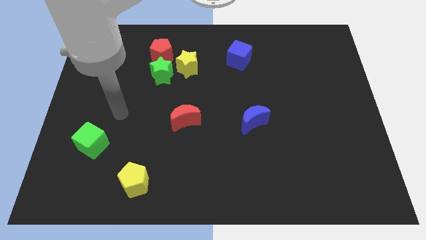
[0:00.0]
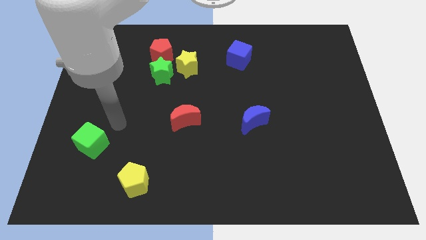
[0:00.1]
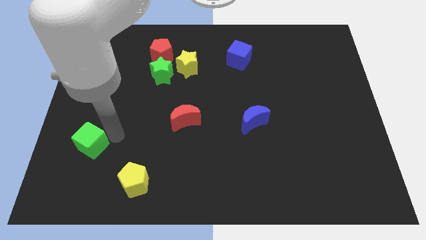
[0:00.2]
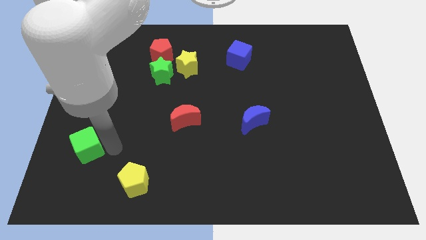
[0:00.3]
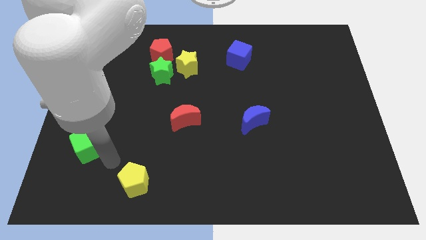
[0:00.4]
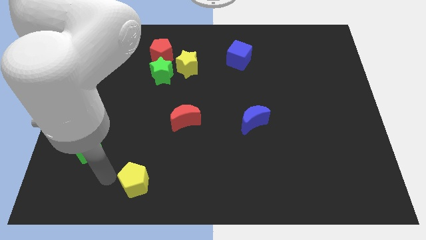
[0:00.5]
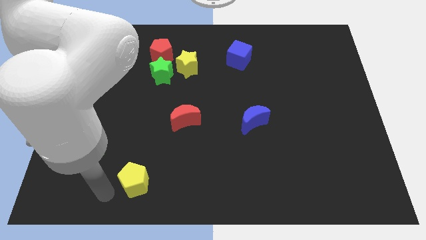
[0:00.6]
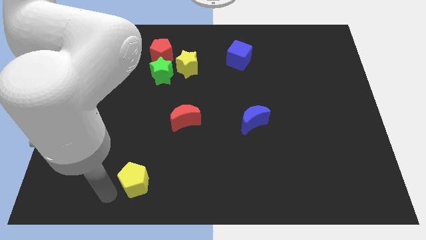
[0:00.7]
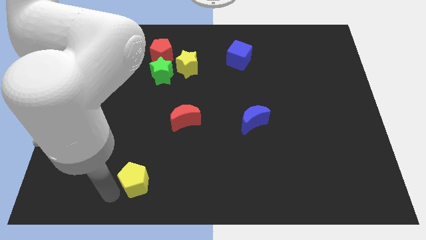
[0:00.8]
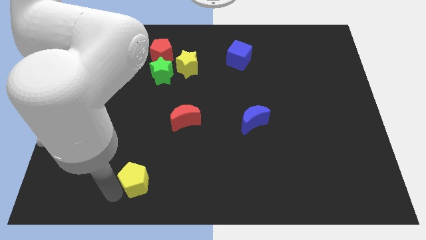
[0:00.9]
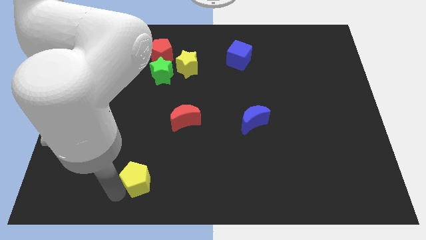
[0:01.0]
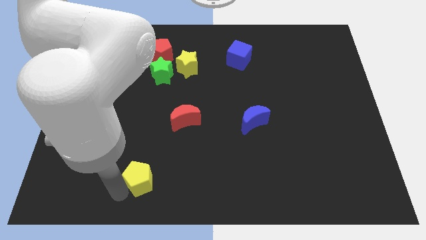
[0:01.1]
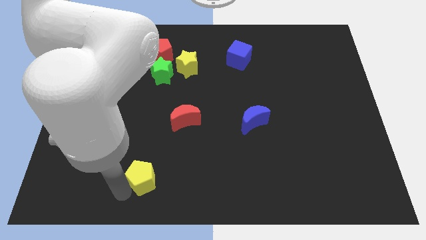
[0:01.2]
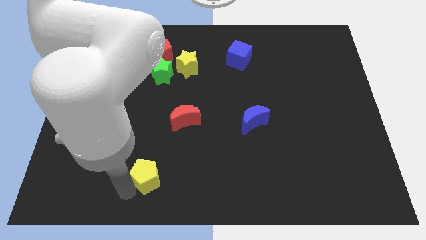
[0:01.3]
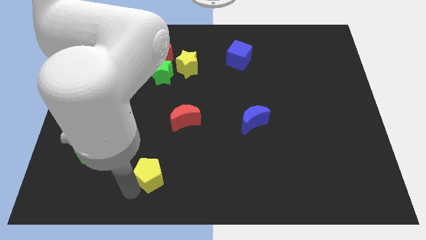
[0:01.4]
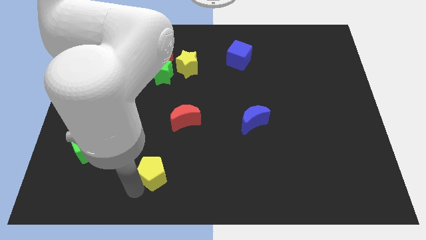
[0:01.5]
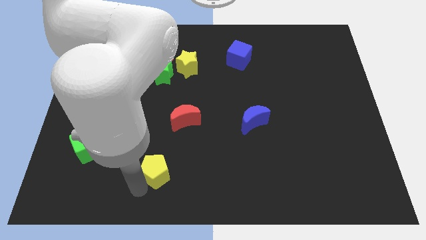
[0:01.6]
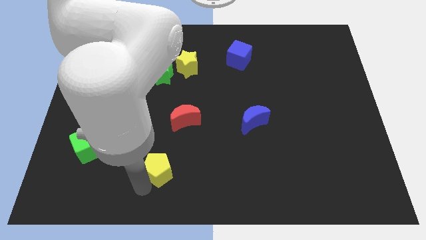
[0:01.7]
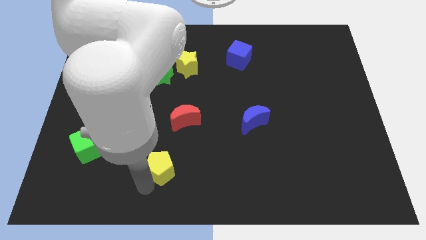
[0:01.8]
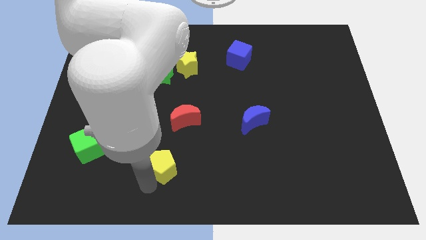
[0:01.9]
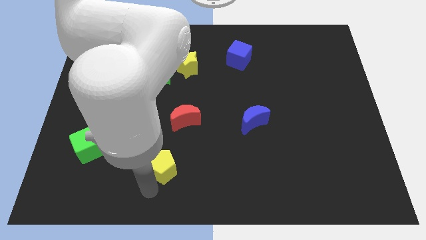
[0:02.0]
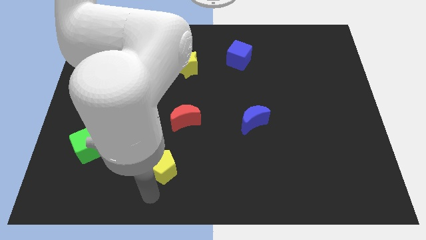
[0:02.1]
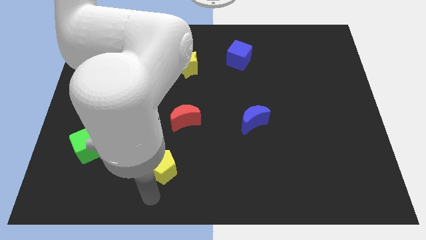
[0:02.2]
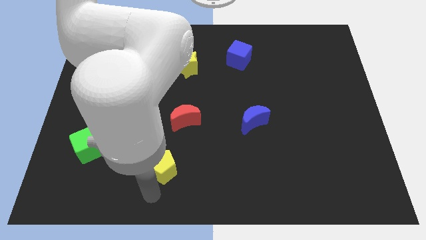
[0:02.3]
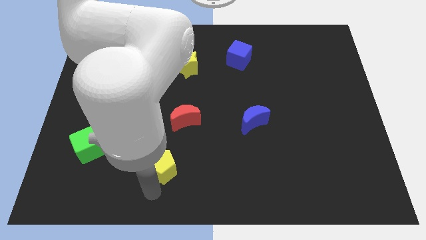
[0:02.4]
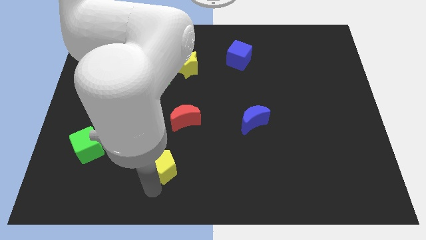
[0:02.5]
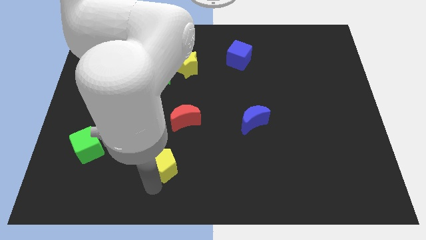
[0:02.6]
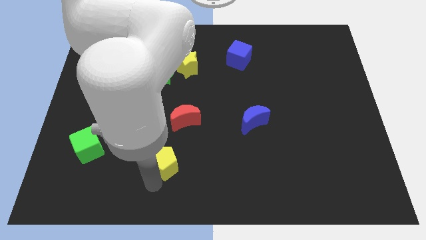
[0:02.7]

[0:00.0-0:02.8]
slightly push the yellow pentagon diagonally up and right

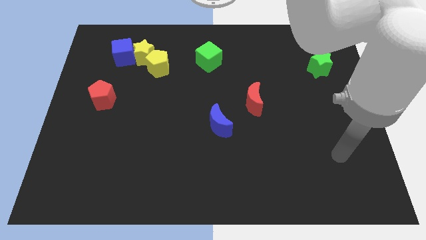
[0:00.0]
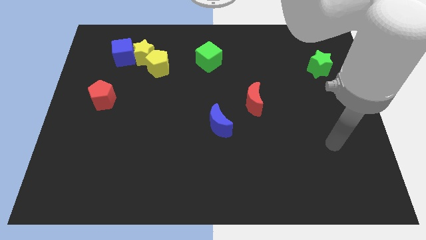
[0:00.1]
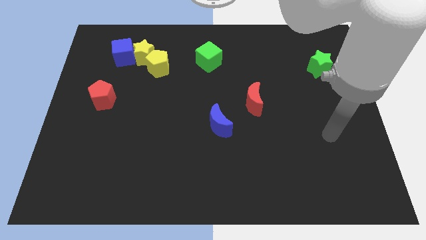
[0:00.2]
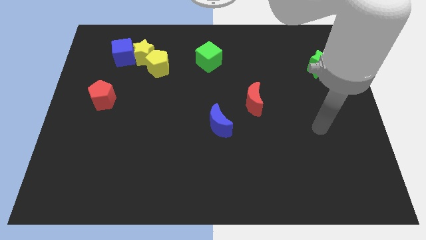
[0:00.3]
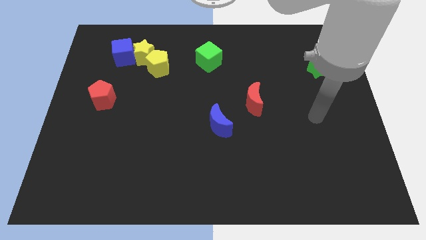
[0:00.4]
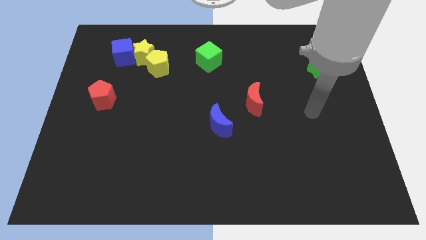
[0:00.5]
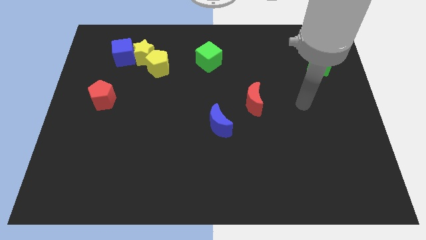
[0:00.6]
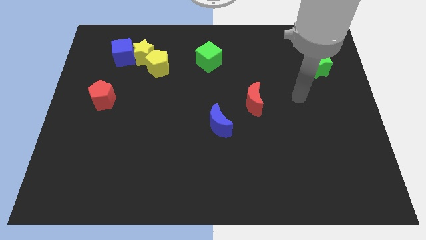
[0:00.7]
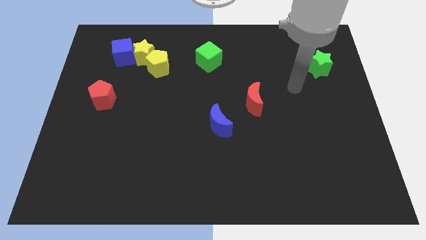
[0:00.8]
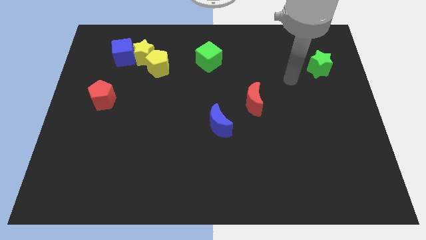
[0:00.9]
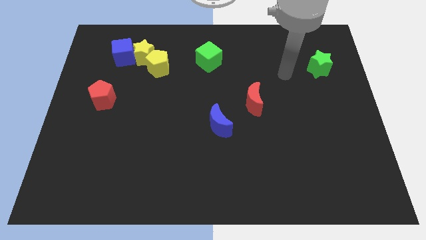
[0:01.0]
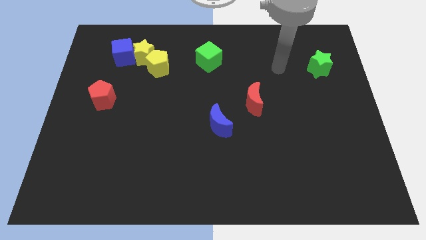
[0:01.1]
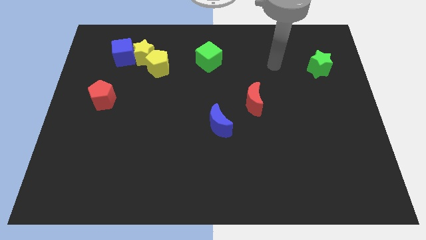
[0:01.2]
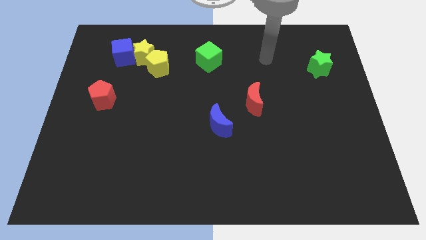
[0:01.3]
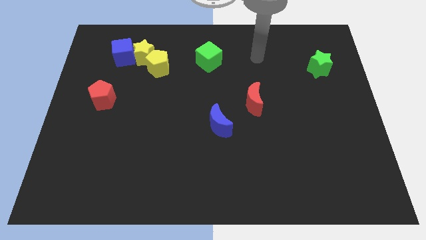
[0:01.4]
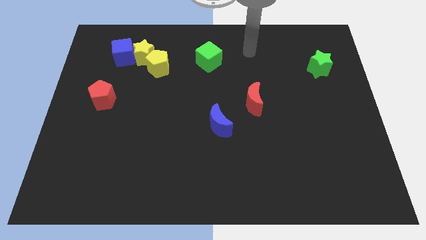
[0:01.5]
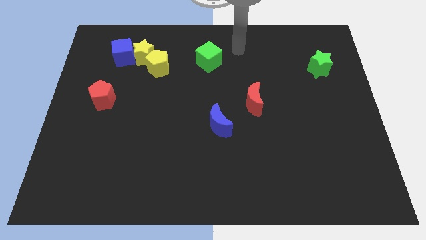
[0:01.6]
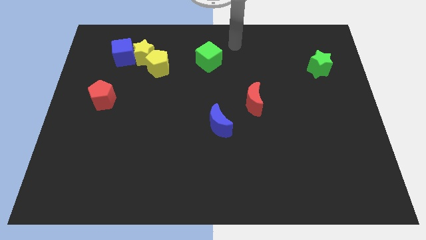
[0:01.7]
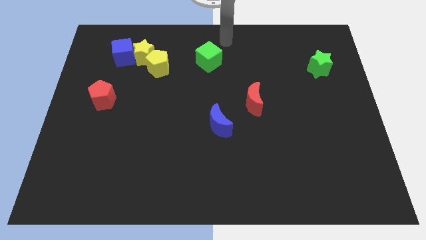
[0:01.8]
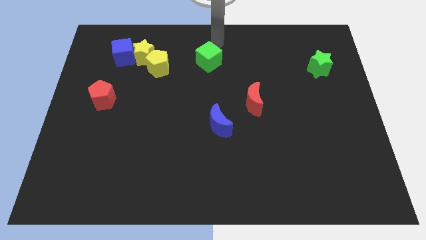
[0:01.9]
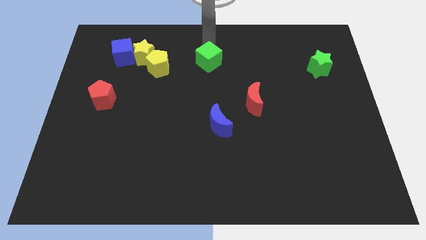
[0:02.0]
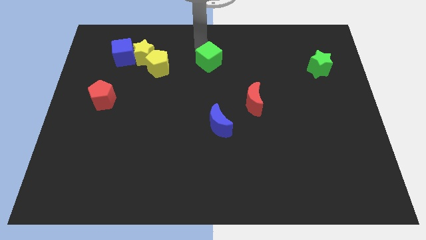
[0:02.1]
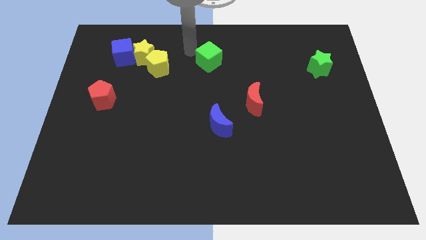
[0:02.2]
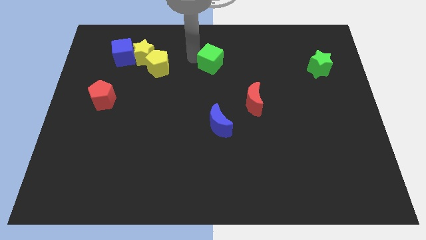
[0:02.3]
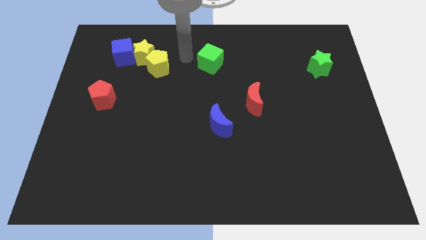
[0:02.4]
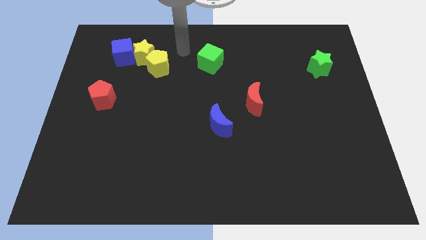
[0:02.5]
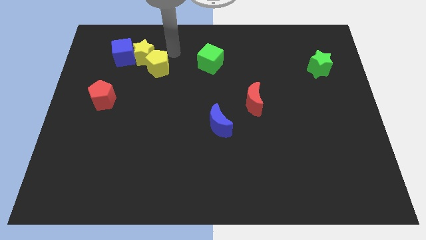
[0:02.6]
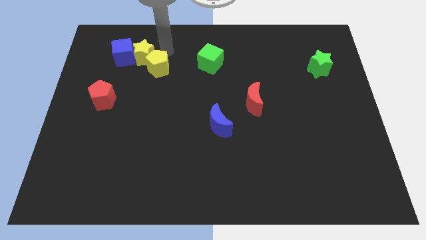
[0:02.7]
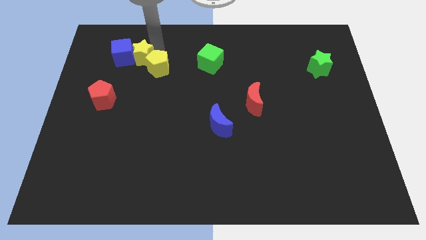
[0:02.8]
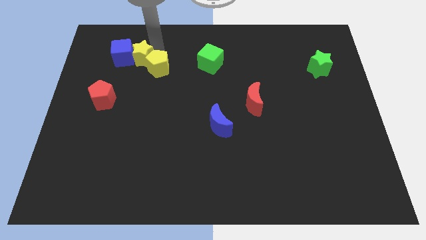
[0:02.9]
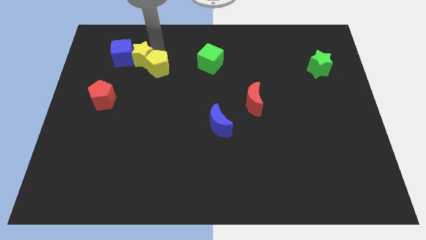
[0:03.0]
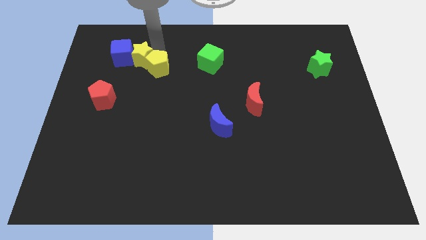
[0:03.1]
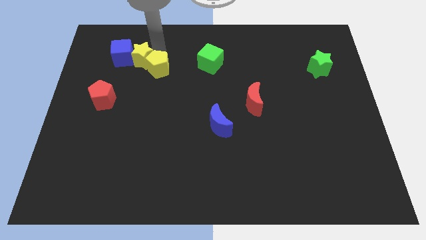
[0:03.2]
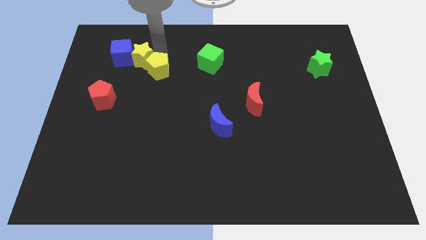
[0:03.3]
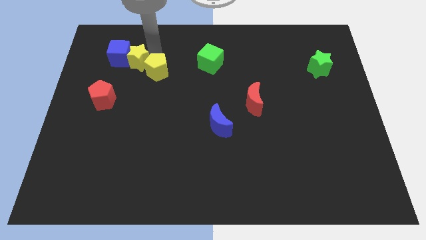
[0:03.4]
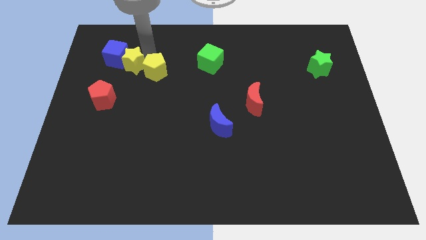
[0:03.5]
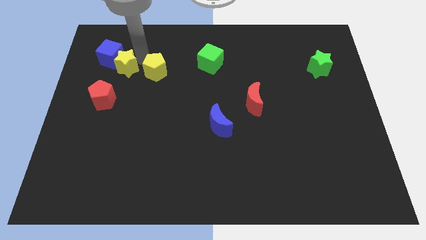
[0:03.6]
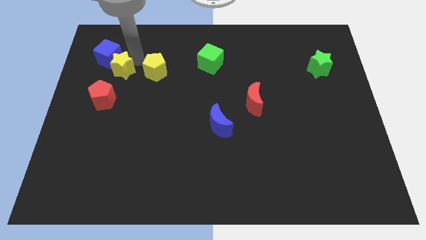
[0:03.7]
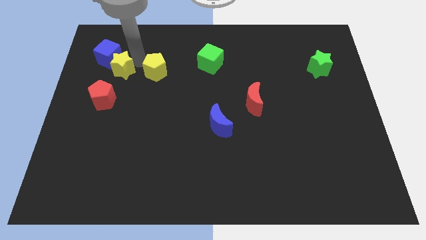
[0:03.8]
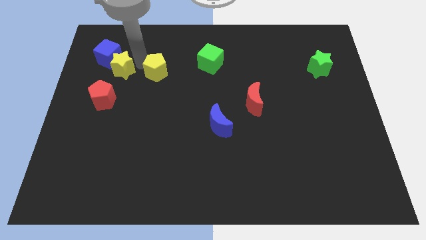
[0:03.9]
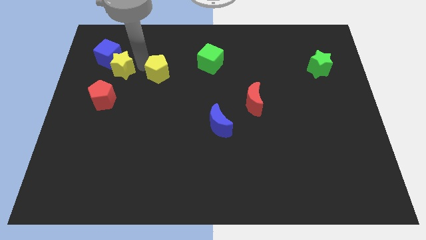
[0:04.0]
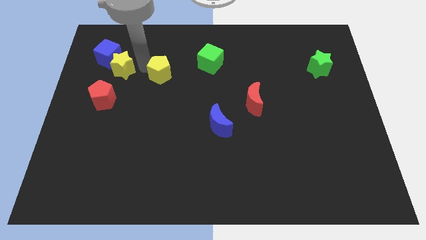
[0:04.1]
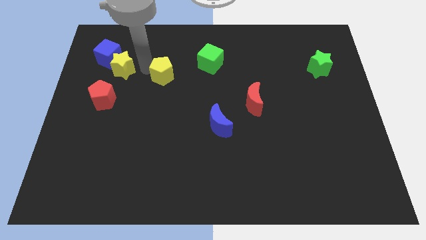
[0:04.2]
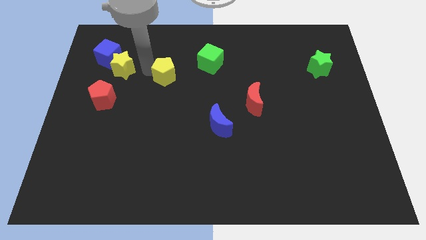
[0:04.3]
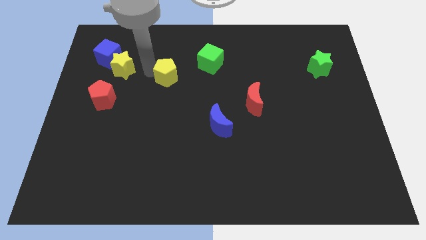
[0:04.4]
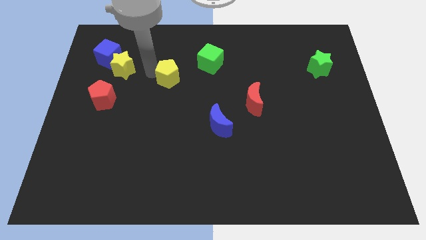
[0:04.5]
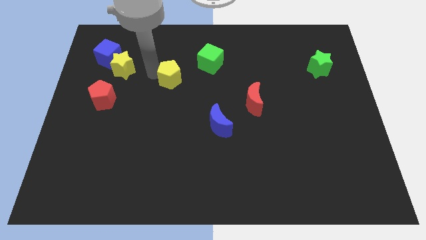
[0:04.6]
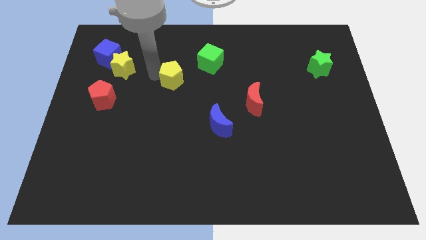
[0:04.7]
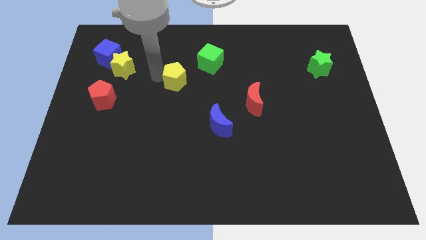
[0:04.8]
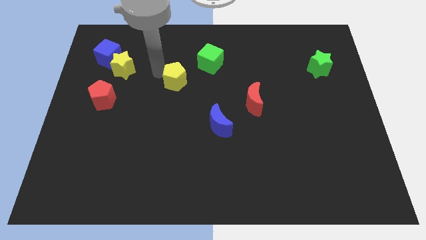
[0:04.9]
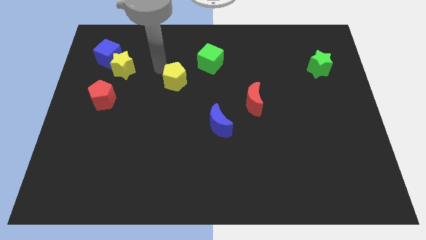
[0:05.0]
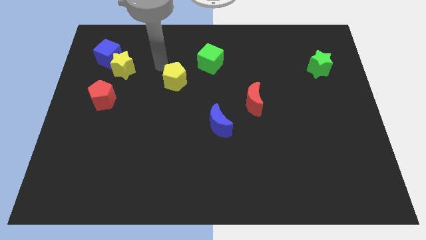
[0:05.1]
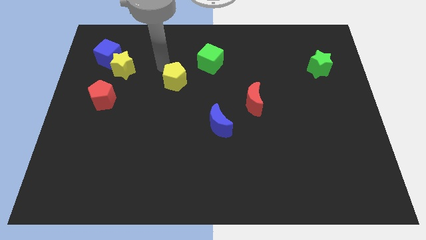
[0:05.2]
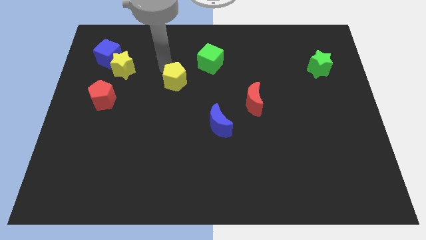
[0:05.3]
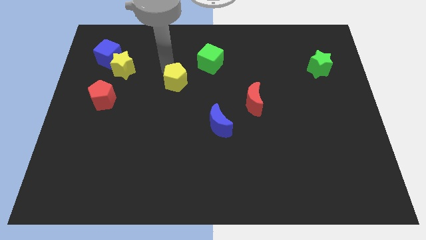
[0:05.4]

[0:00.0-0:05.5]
push the yellow pentagon somewhat downwards and then right
